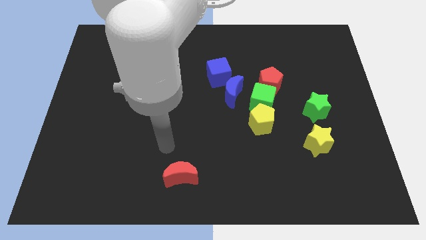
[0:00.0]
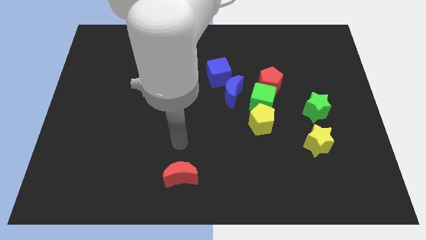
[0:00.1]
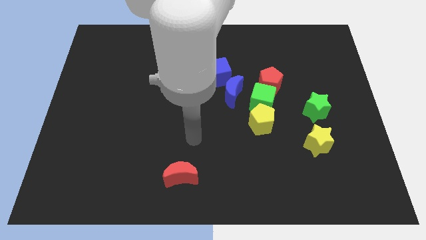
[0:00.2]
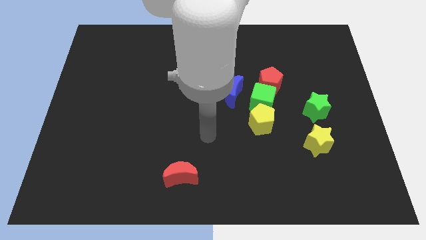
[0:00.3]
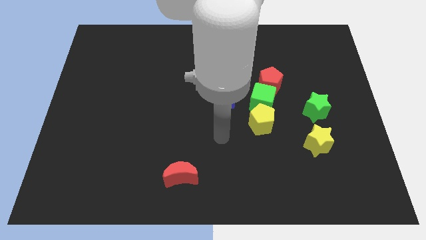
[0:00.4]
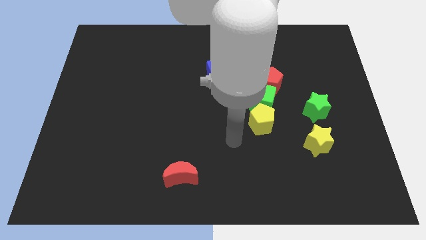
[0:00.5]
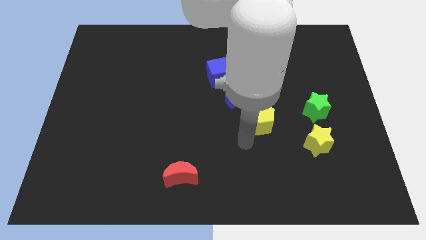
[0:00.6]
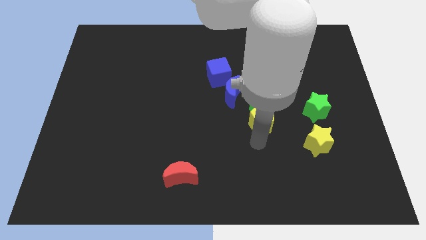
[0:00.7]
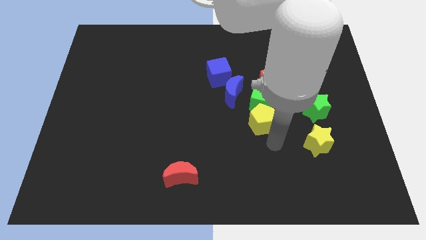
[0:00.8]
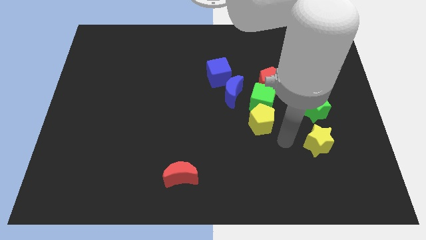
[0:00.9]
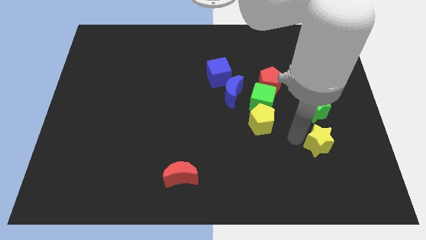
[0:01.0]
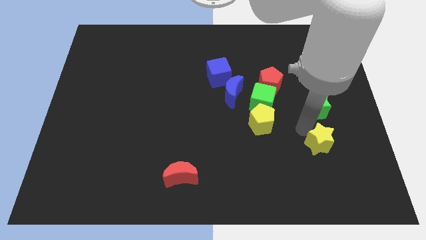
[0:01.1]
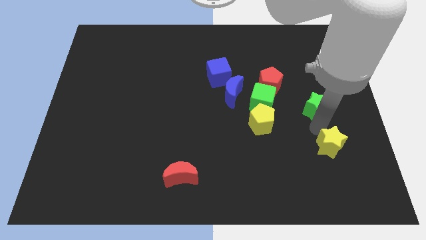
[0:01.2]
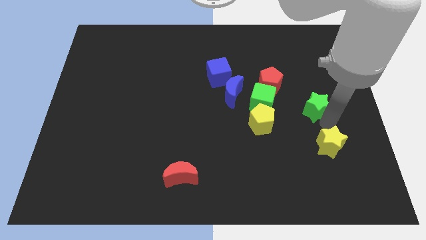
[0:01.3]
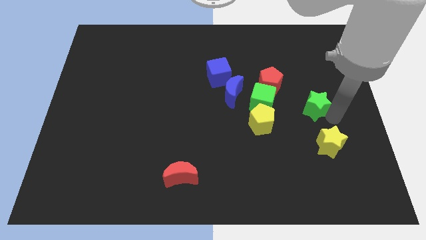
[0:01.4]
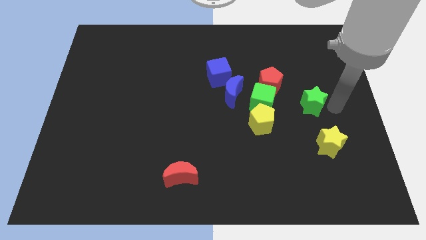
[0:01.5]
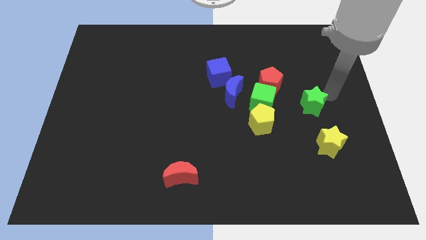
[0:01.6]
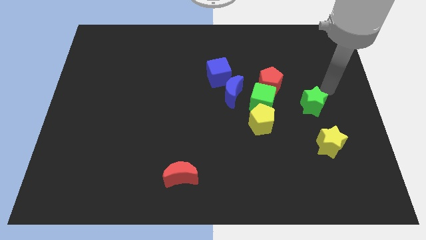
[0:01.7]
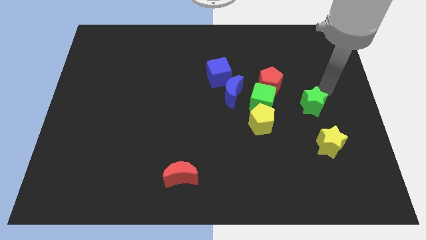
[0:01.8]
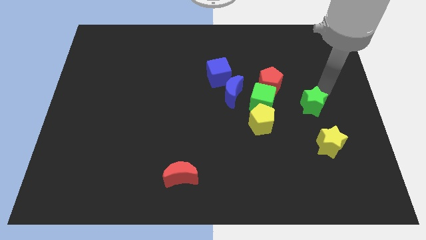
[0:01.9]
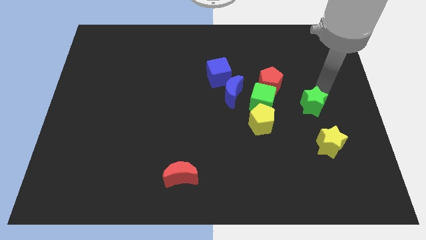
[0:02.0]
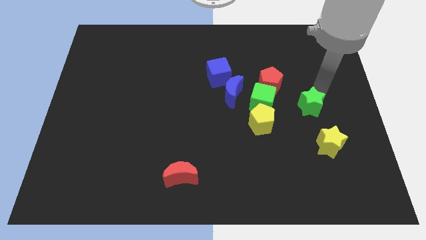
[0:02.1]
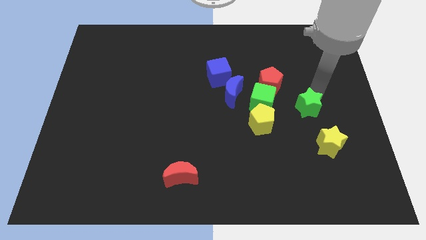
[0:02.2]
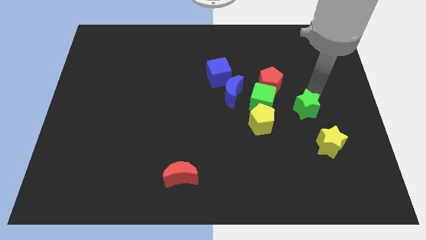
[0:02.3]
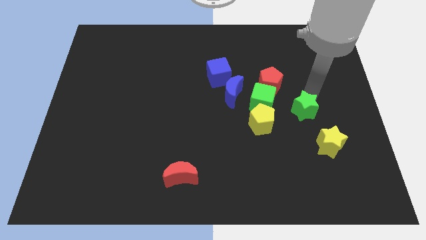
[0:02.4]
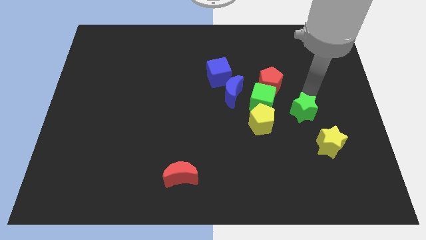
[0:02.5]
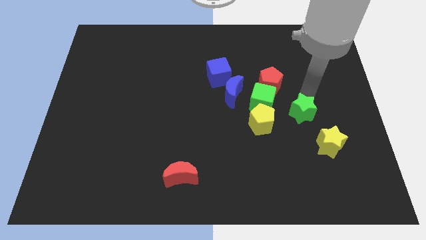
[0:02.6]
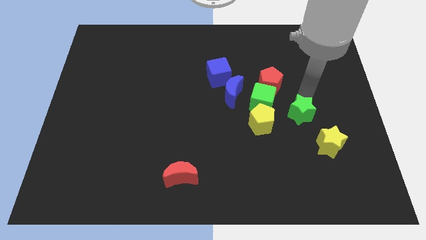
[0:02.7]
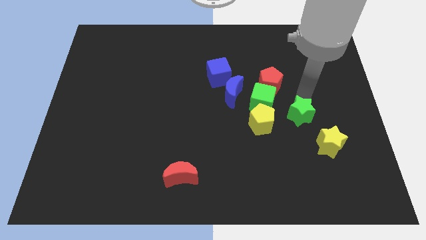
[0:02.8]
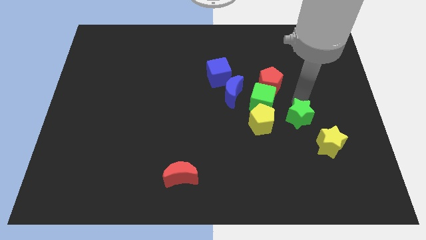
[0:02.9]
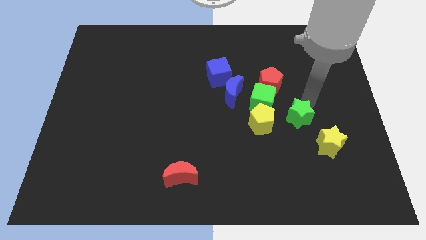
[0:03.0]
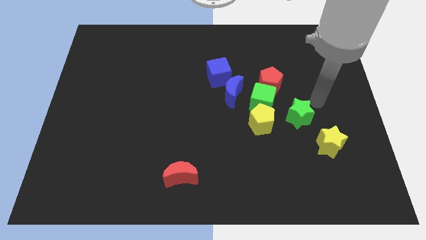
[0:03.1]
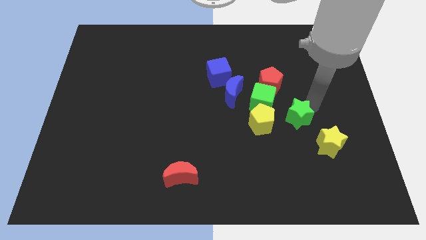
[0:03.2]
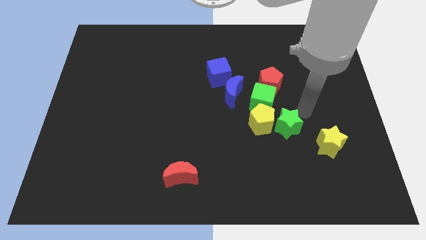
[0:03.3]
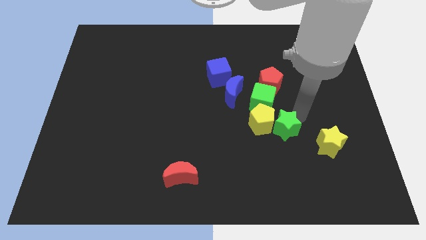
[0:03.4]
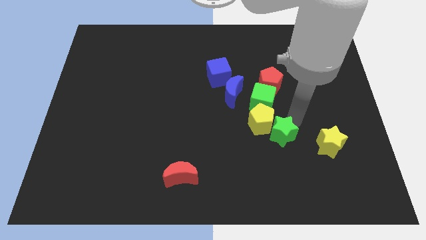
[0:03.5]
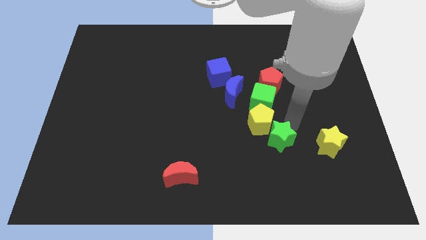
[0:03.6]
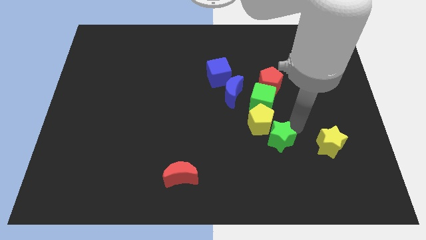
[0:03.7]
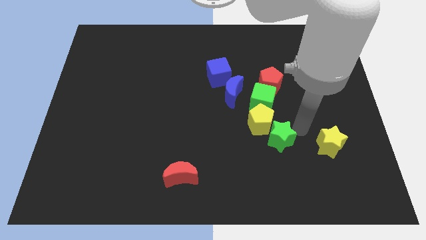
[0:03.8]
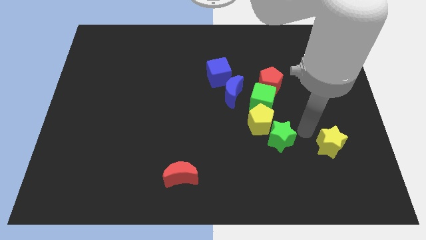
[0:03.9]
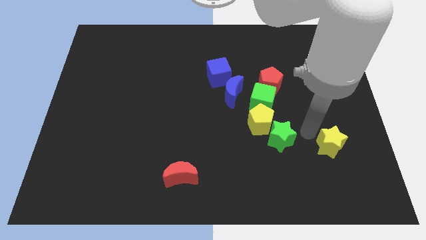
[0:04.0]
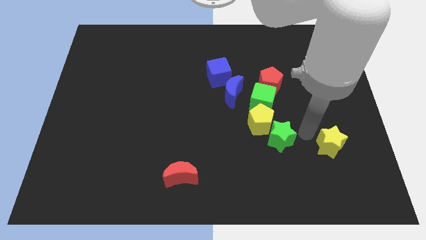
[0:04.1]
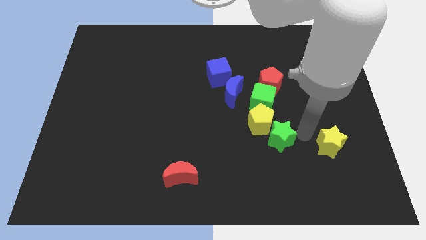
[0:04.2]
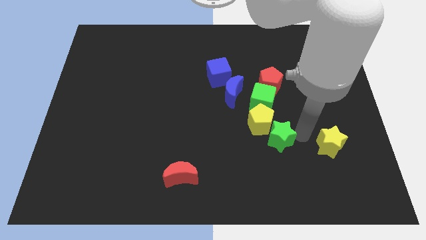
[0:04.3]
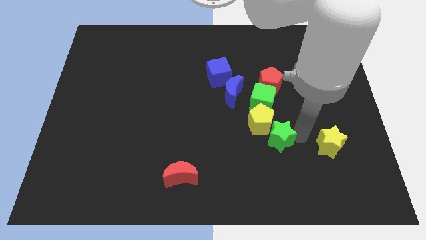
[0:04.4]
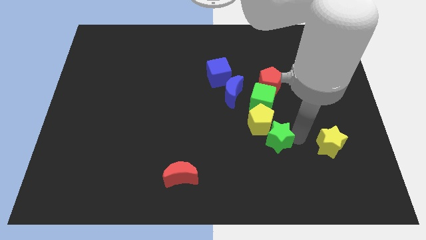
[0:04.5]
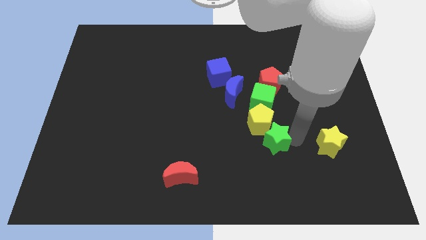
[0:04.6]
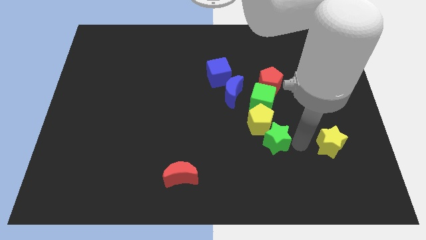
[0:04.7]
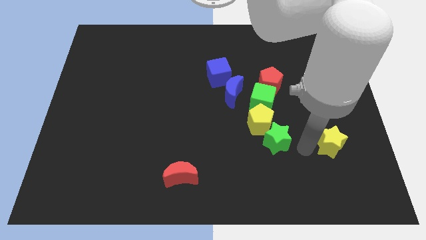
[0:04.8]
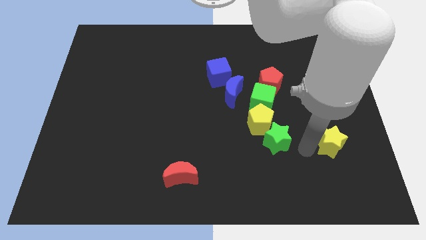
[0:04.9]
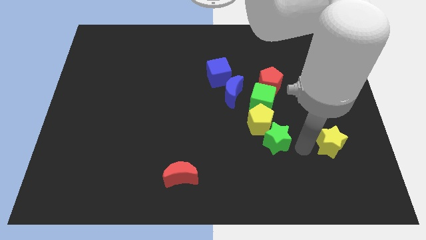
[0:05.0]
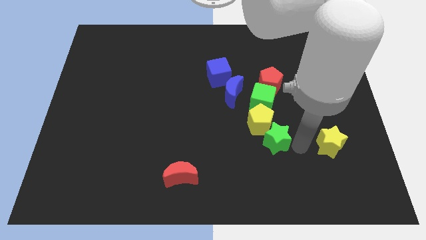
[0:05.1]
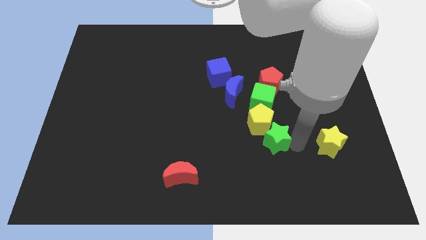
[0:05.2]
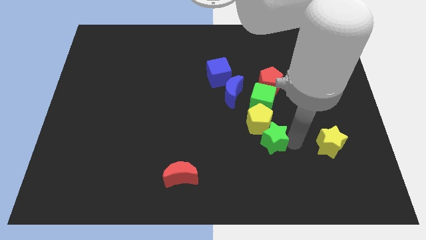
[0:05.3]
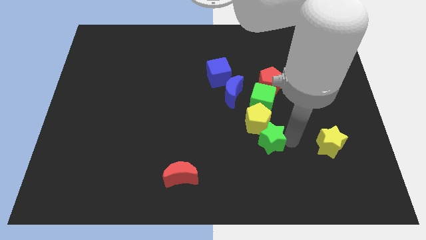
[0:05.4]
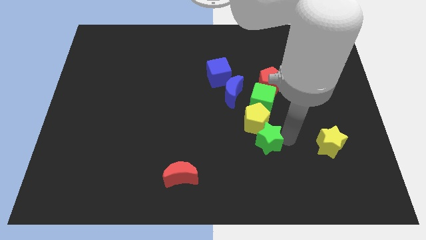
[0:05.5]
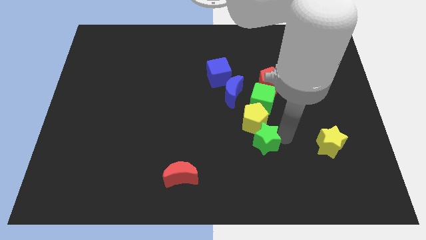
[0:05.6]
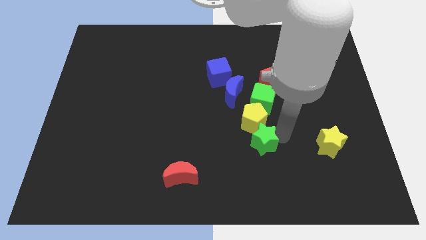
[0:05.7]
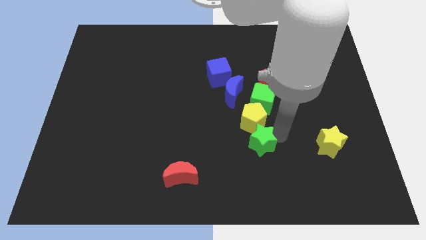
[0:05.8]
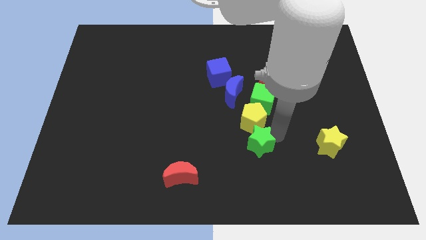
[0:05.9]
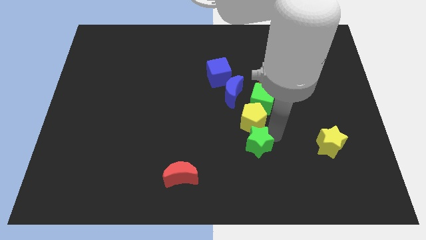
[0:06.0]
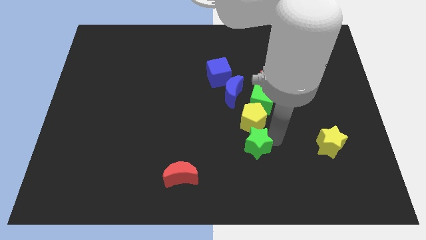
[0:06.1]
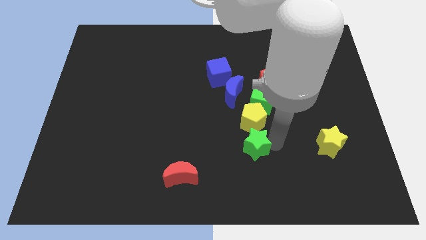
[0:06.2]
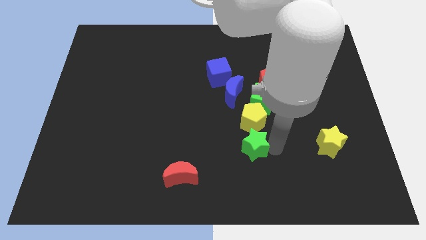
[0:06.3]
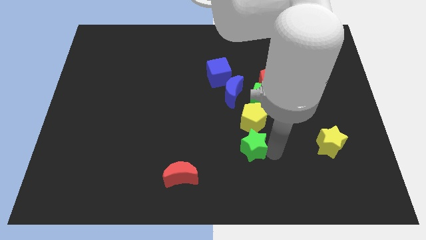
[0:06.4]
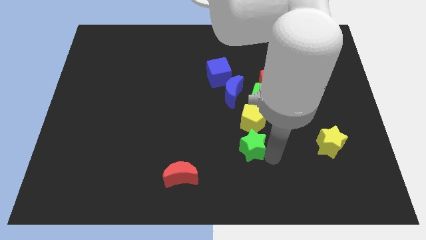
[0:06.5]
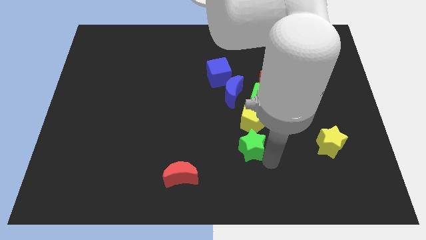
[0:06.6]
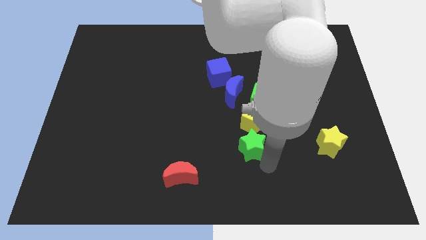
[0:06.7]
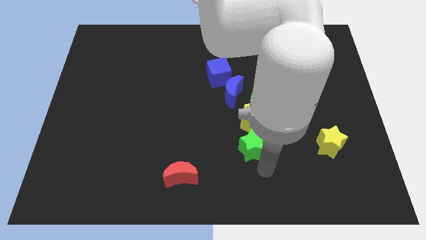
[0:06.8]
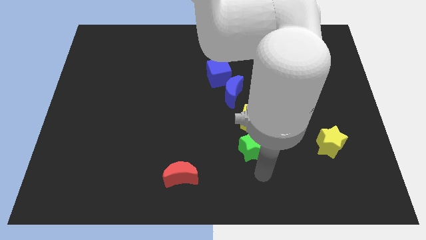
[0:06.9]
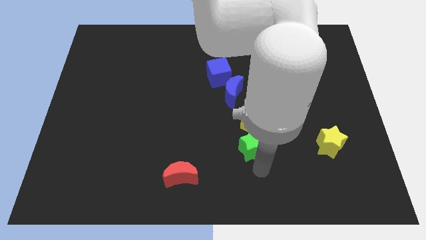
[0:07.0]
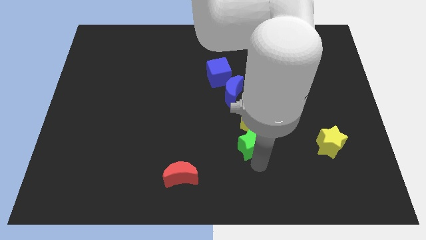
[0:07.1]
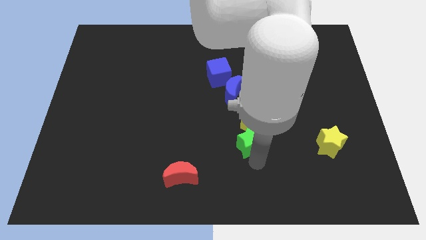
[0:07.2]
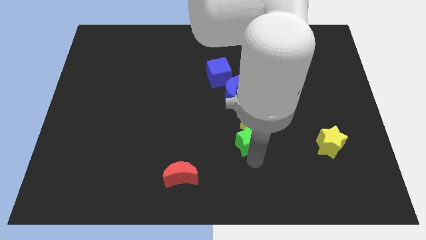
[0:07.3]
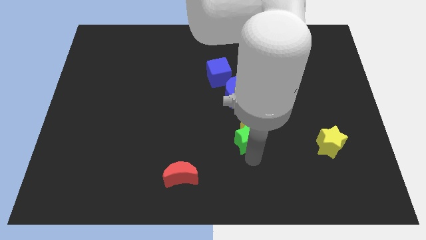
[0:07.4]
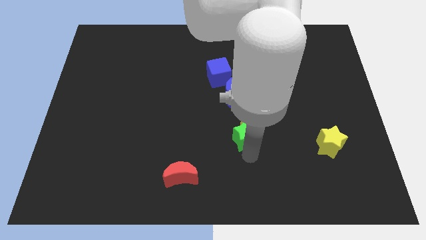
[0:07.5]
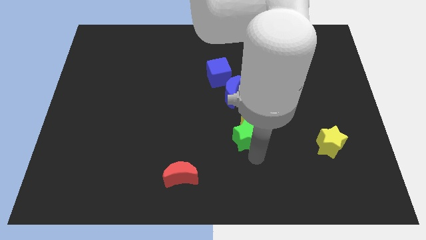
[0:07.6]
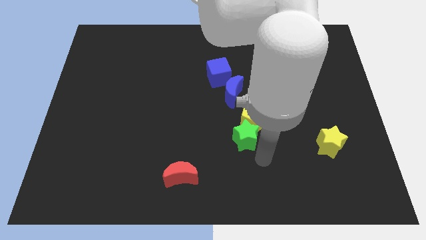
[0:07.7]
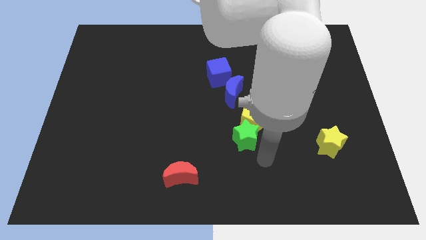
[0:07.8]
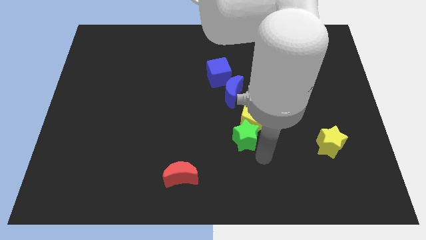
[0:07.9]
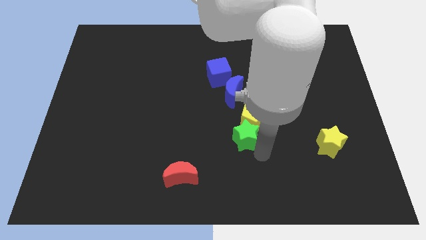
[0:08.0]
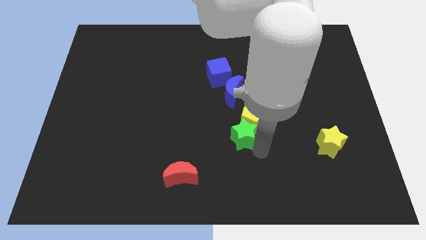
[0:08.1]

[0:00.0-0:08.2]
push the green star to the center of the board
